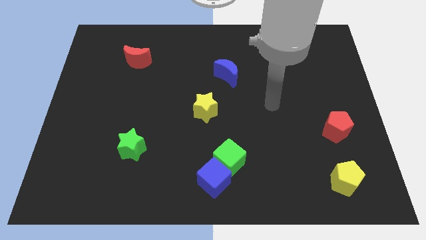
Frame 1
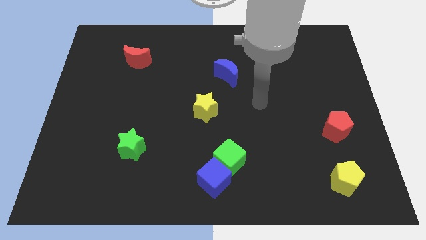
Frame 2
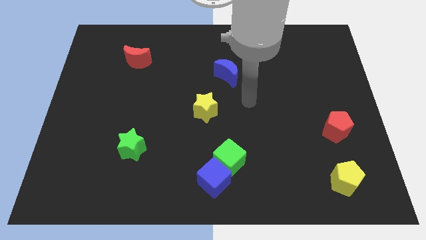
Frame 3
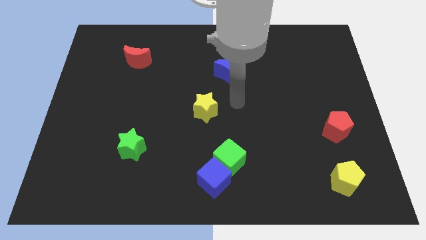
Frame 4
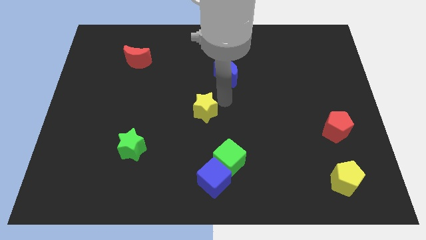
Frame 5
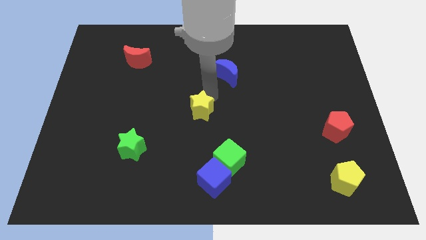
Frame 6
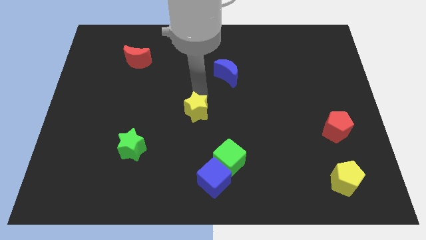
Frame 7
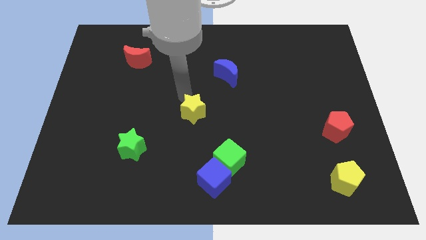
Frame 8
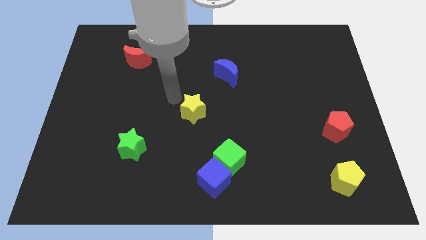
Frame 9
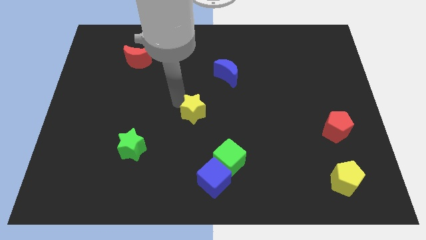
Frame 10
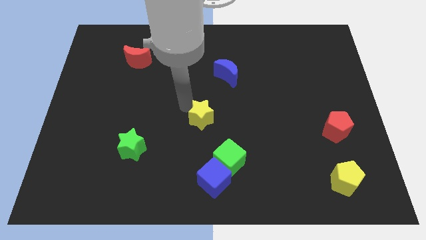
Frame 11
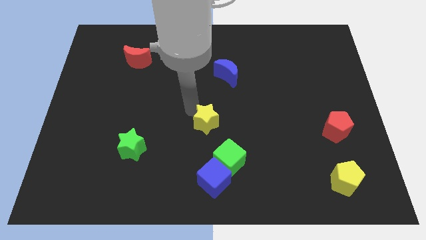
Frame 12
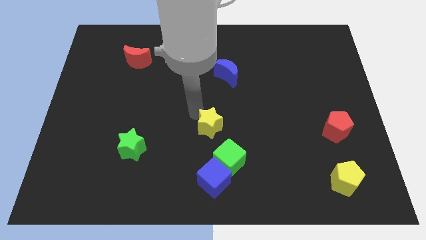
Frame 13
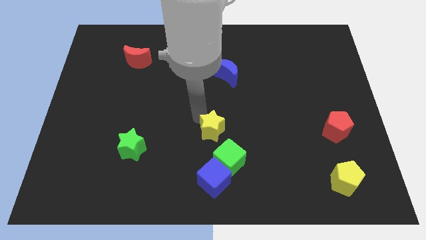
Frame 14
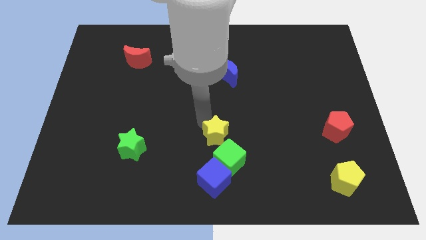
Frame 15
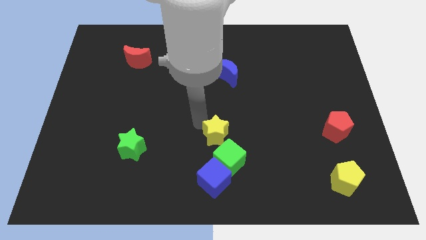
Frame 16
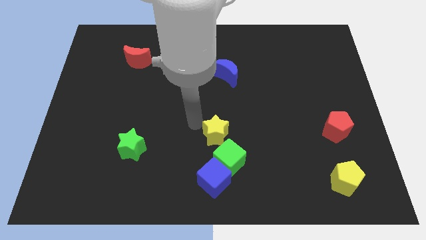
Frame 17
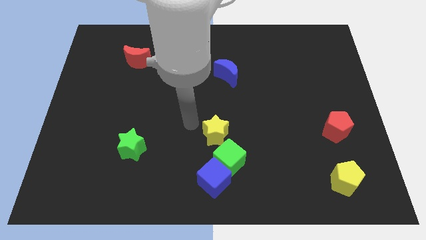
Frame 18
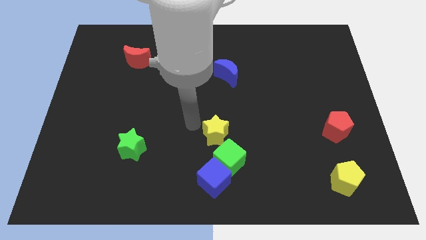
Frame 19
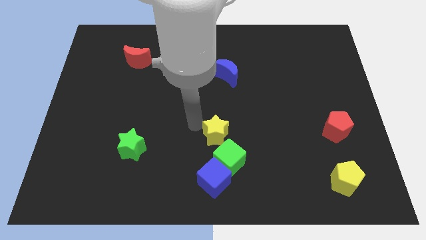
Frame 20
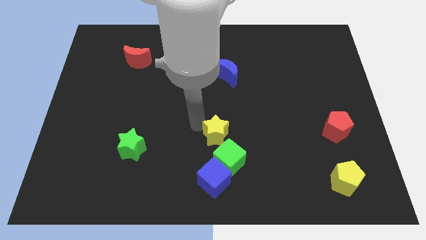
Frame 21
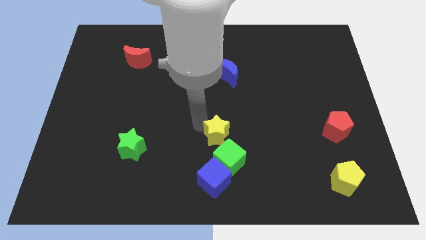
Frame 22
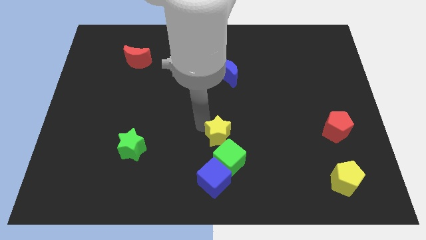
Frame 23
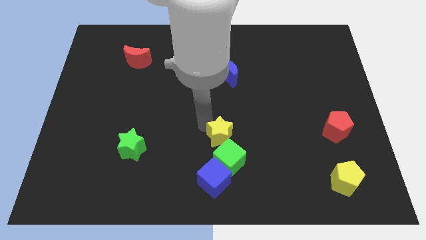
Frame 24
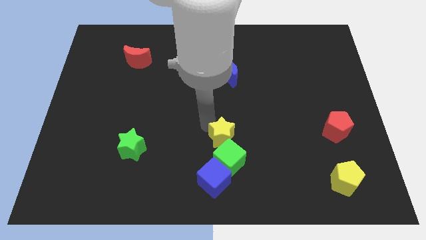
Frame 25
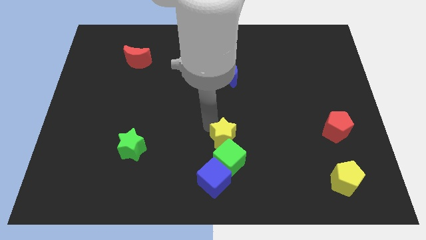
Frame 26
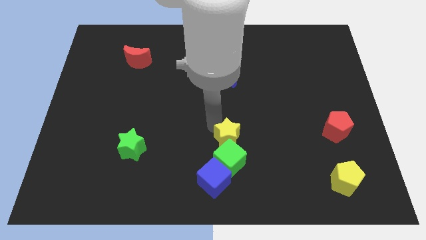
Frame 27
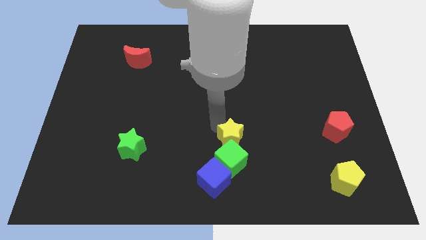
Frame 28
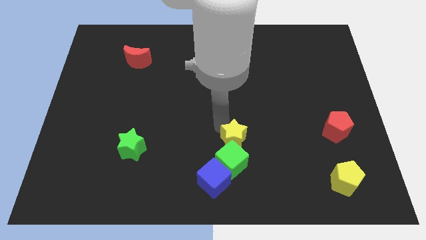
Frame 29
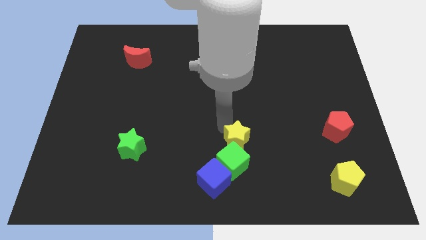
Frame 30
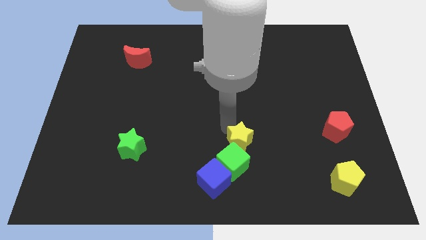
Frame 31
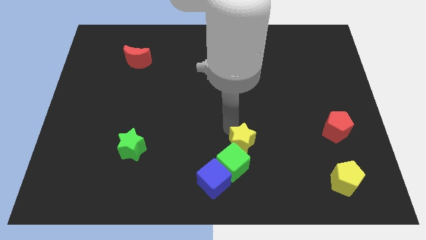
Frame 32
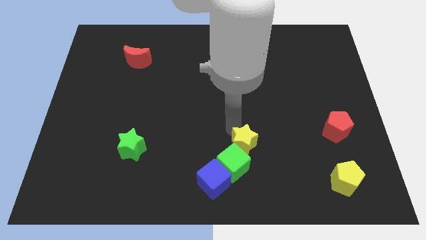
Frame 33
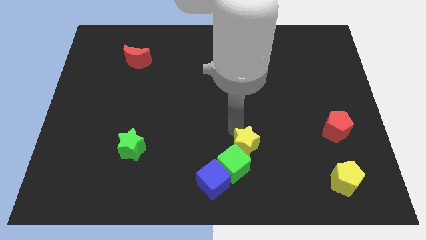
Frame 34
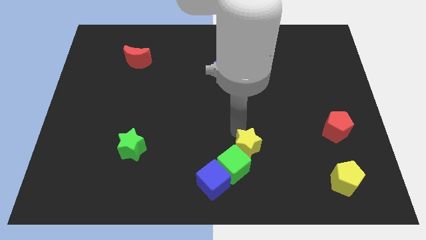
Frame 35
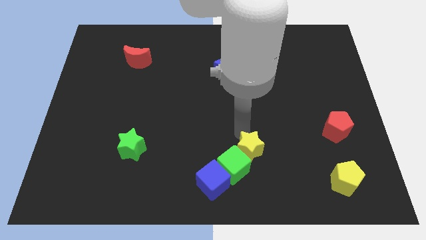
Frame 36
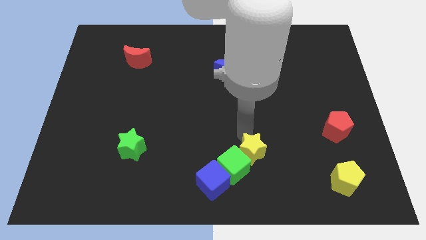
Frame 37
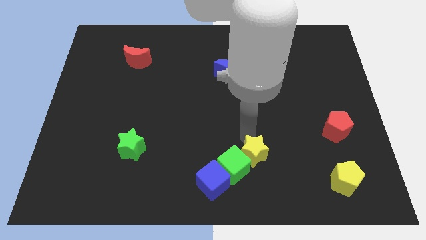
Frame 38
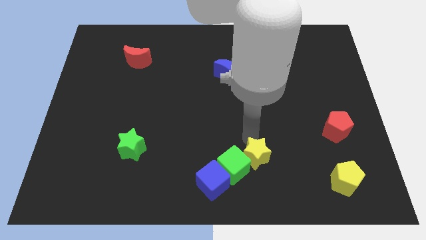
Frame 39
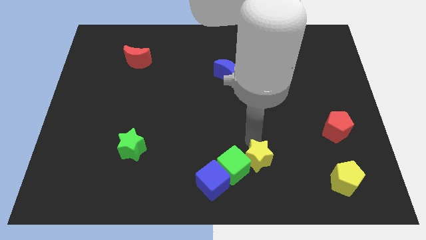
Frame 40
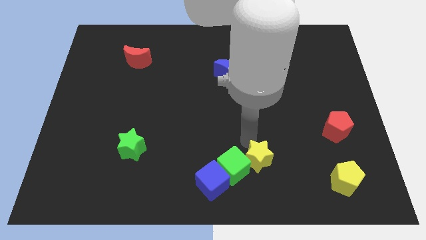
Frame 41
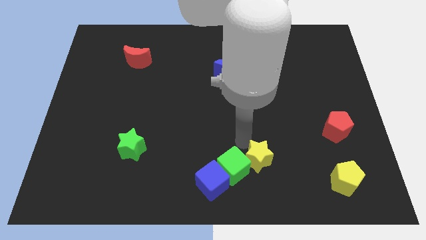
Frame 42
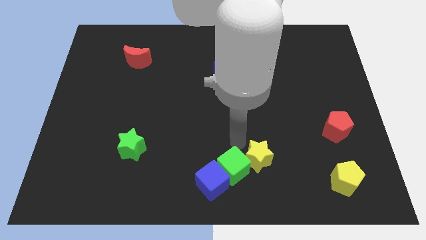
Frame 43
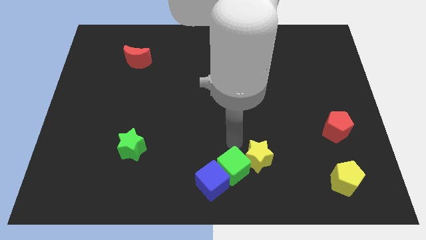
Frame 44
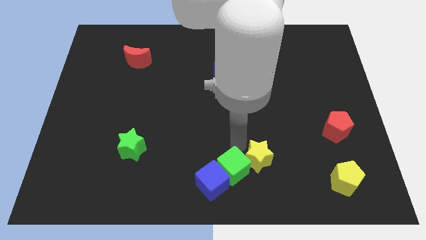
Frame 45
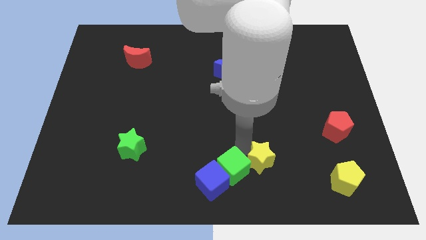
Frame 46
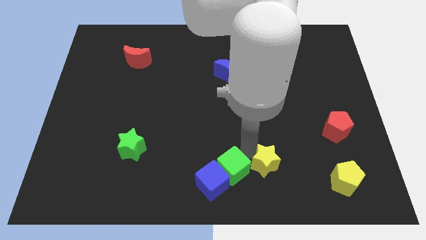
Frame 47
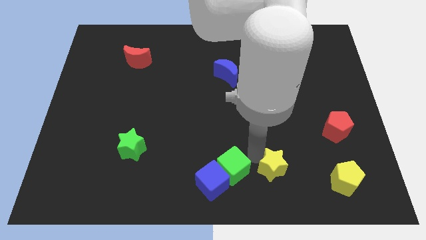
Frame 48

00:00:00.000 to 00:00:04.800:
move the yellow star left of the yellow pentagon

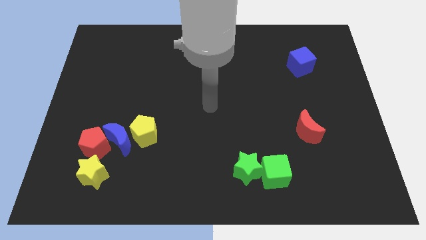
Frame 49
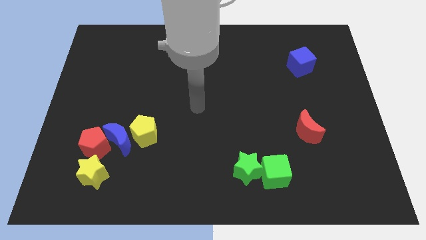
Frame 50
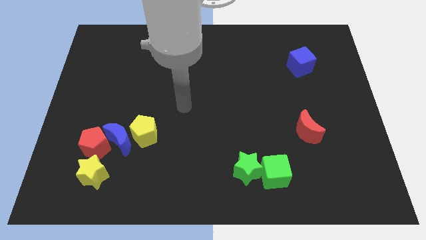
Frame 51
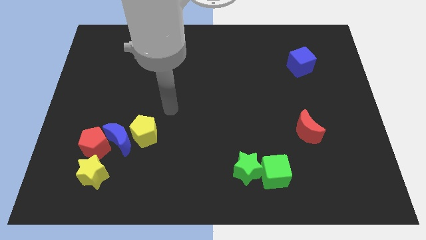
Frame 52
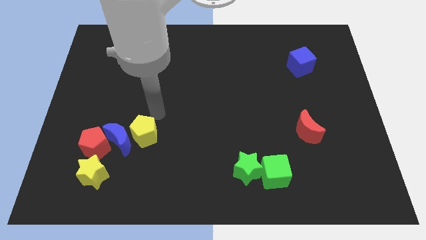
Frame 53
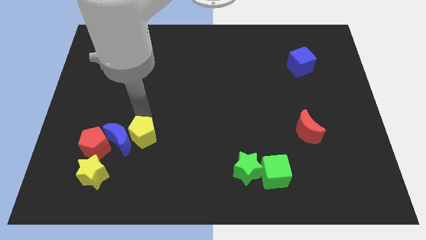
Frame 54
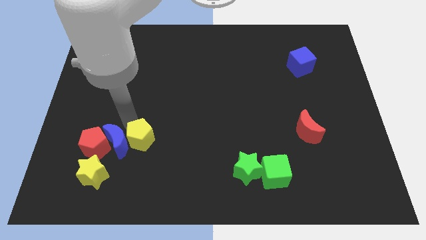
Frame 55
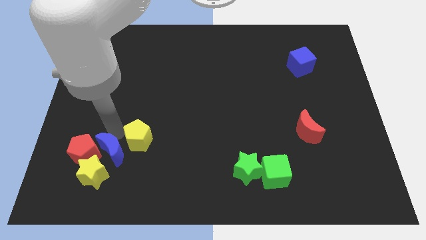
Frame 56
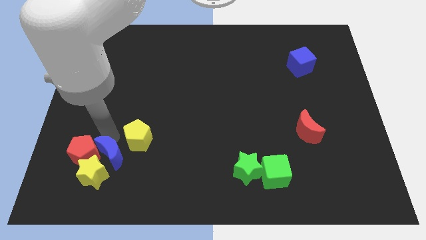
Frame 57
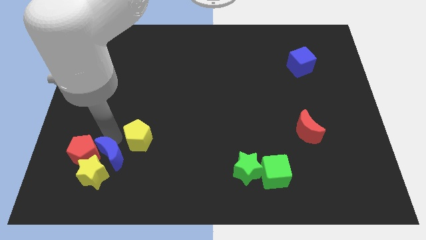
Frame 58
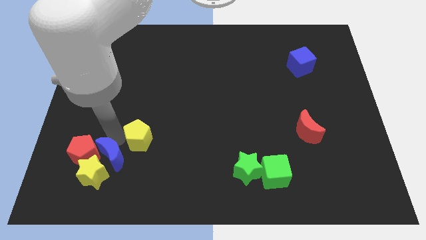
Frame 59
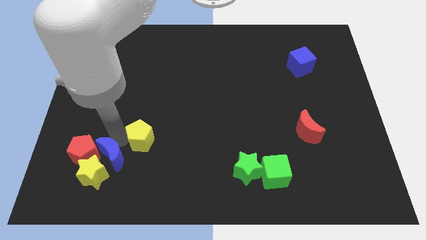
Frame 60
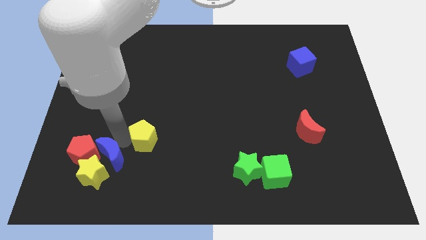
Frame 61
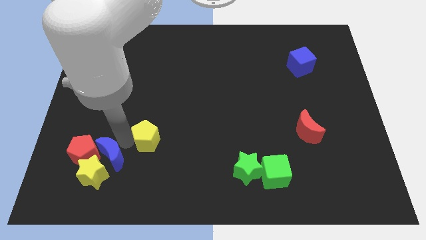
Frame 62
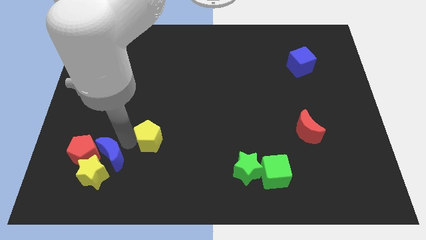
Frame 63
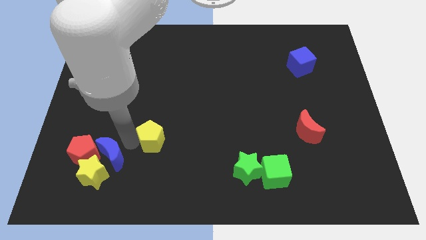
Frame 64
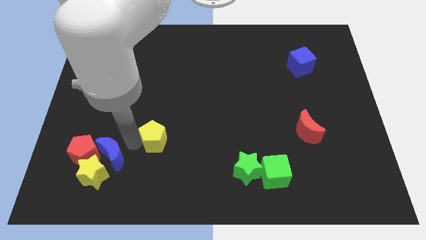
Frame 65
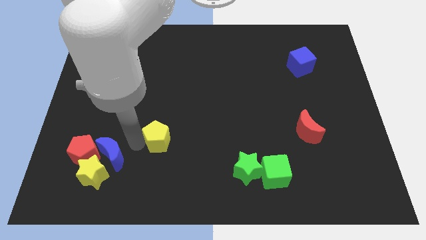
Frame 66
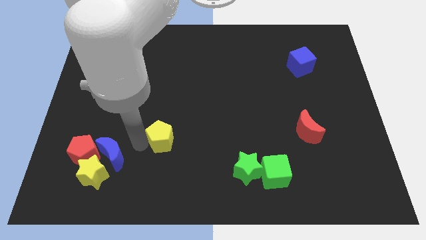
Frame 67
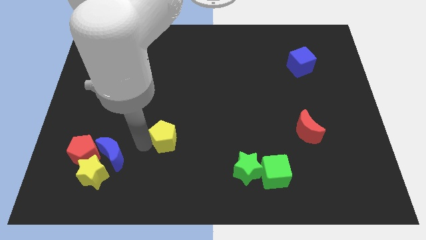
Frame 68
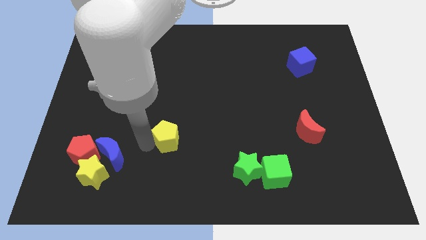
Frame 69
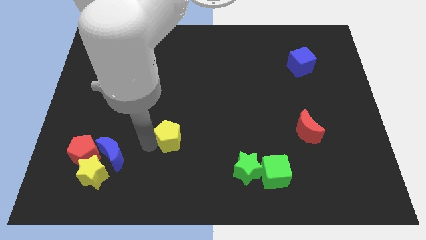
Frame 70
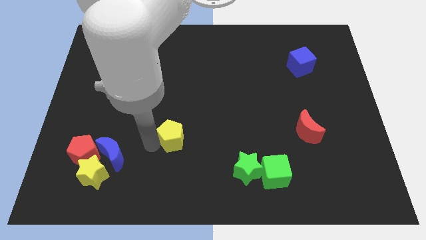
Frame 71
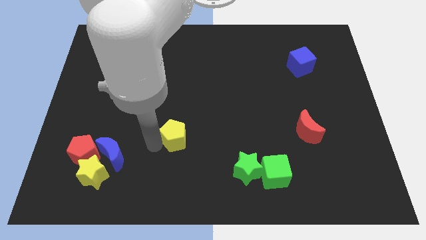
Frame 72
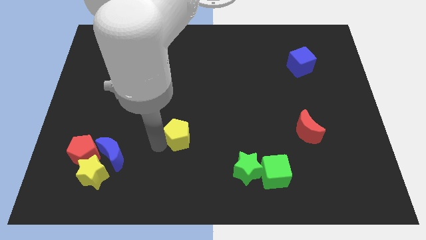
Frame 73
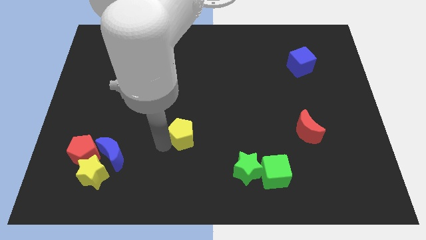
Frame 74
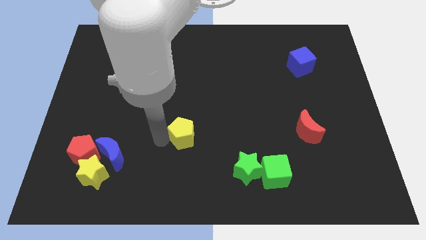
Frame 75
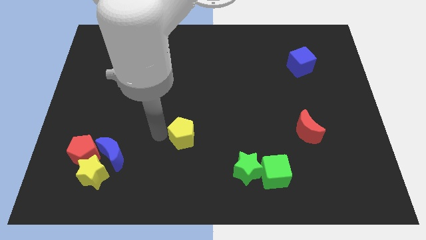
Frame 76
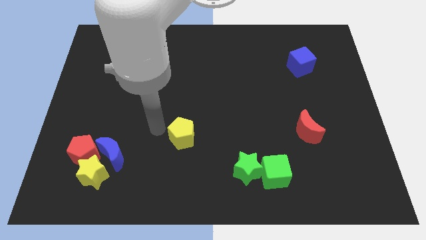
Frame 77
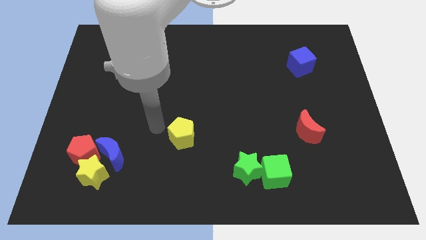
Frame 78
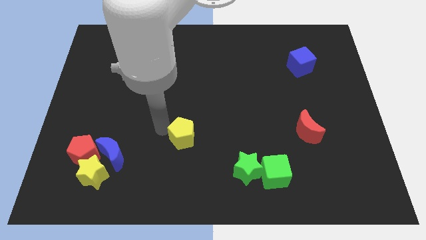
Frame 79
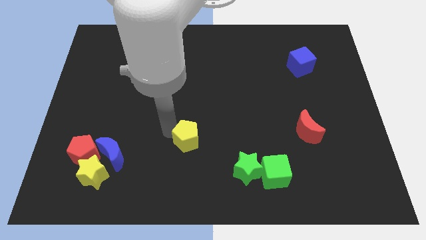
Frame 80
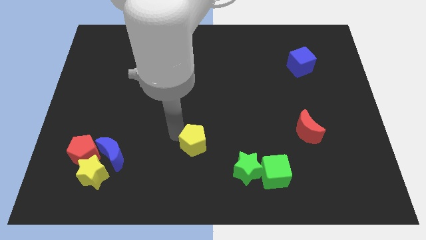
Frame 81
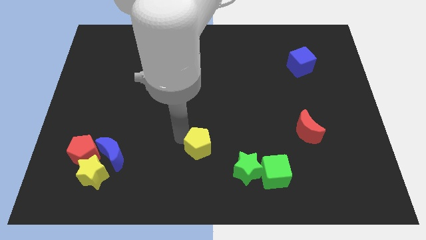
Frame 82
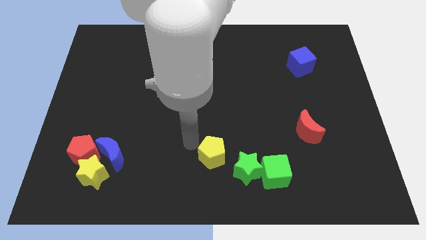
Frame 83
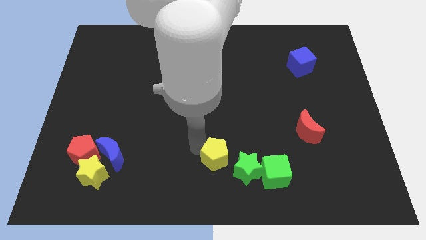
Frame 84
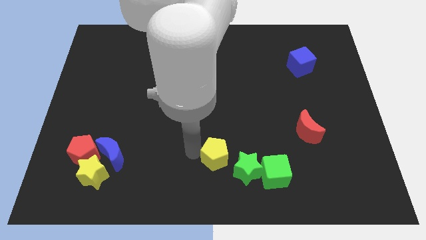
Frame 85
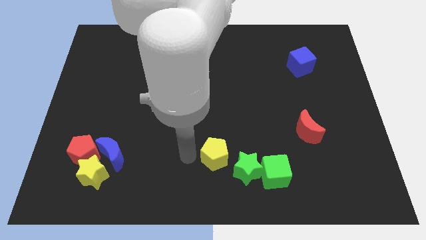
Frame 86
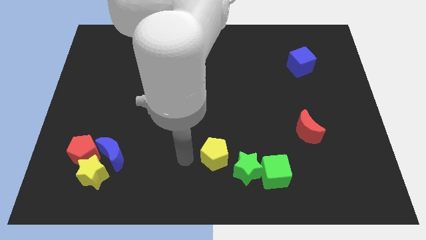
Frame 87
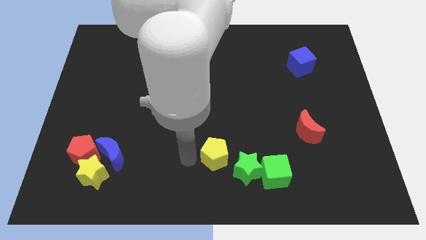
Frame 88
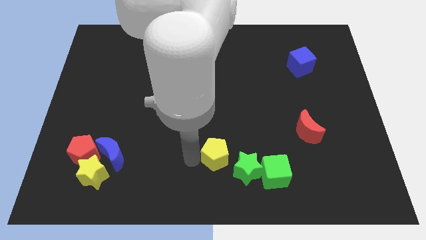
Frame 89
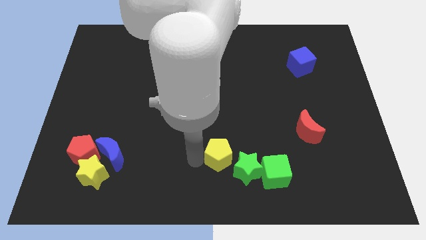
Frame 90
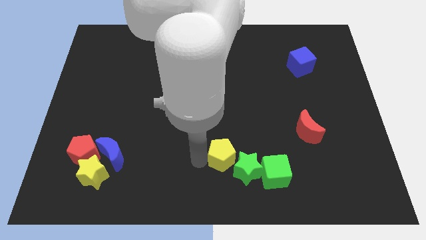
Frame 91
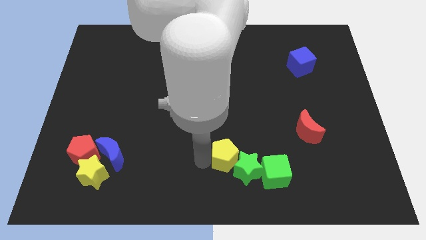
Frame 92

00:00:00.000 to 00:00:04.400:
slide the yellow pentagon to the top left side of the green cube
